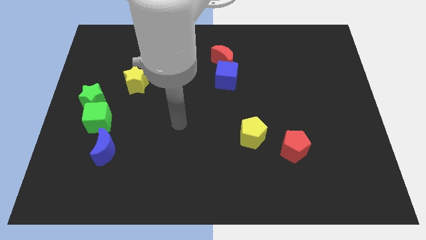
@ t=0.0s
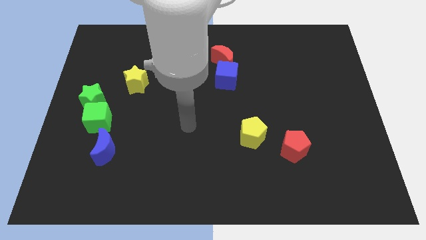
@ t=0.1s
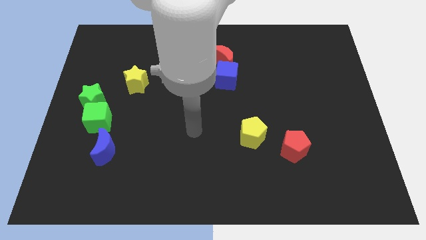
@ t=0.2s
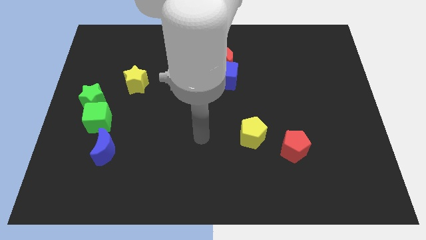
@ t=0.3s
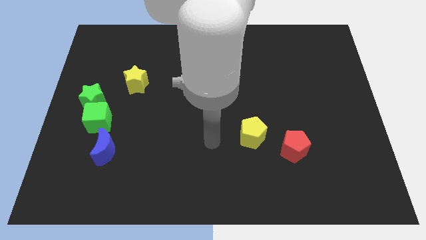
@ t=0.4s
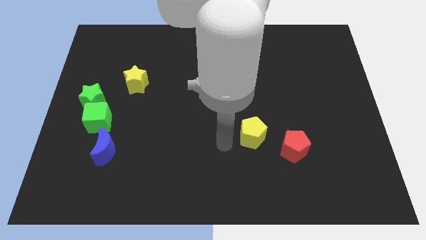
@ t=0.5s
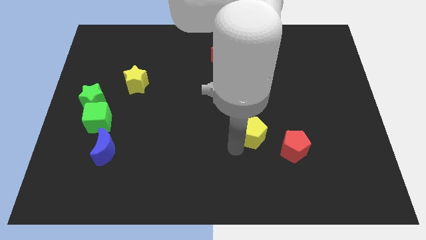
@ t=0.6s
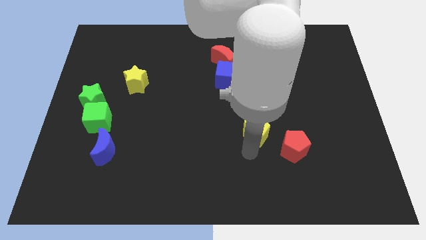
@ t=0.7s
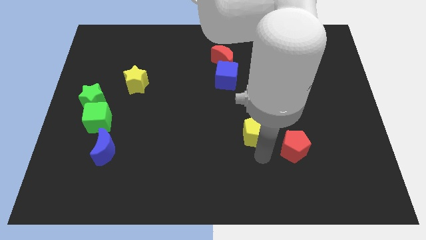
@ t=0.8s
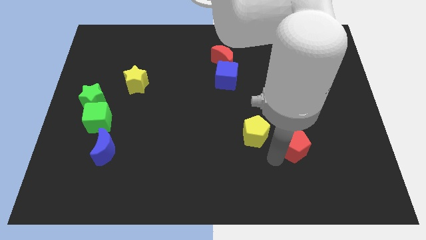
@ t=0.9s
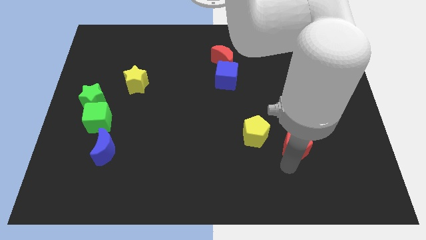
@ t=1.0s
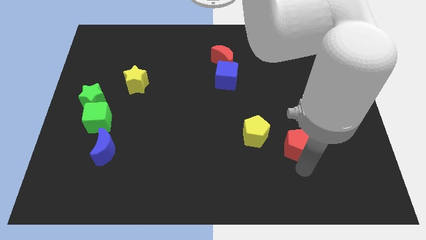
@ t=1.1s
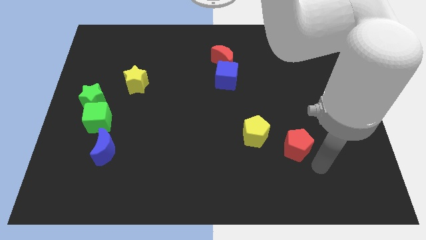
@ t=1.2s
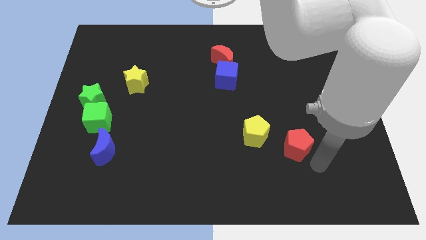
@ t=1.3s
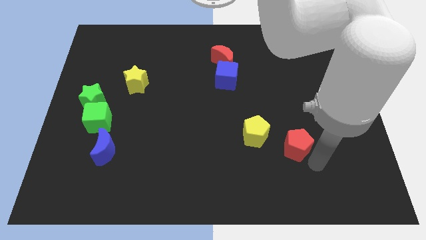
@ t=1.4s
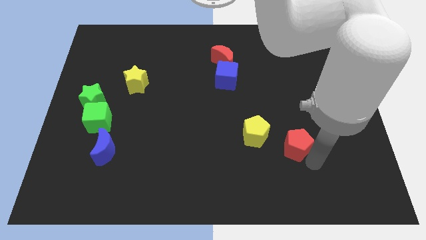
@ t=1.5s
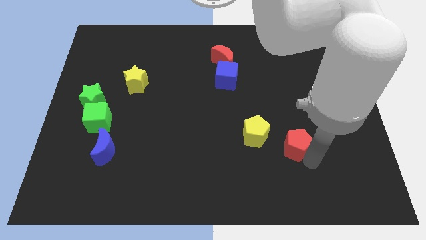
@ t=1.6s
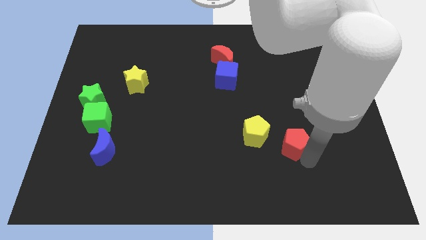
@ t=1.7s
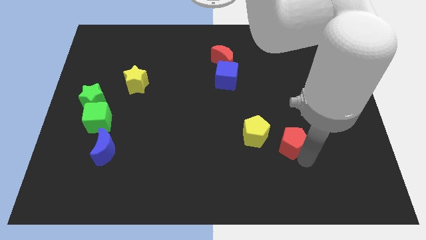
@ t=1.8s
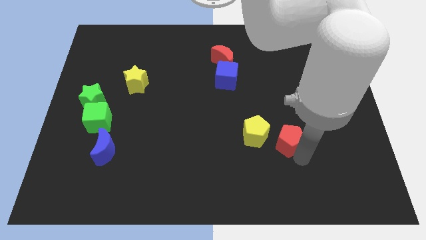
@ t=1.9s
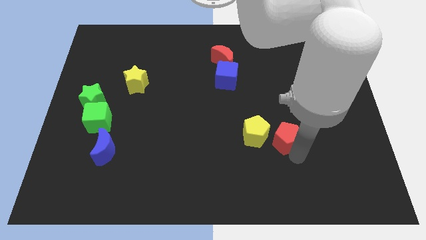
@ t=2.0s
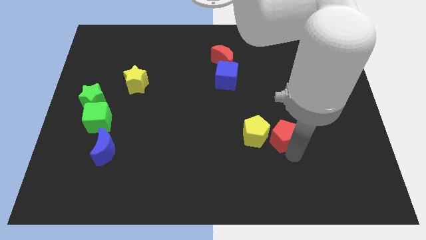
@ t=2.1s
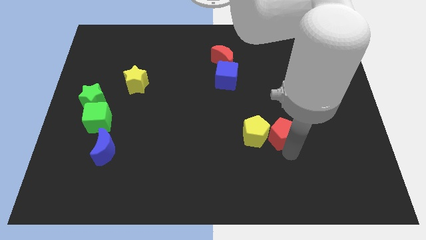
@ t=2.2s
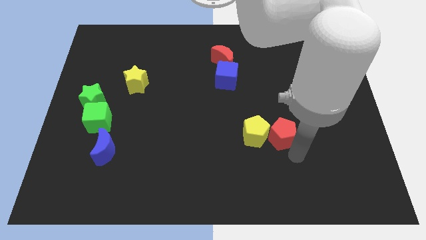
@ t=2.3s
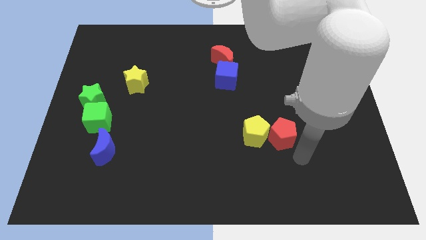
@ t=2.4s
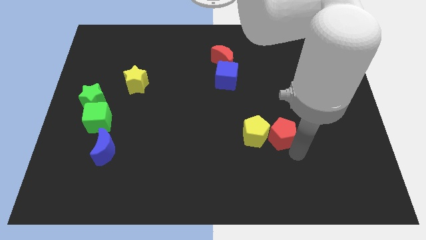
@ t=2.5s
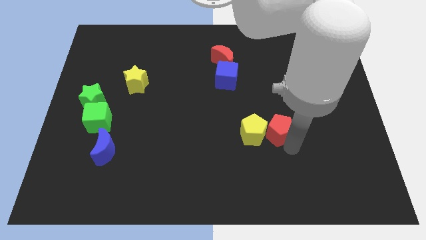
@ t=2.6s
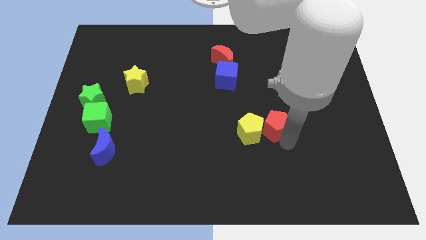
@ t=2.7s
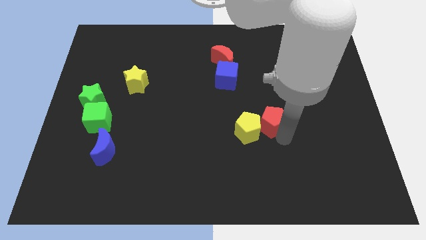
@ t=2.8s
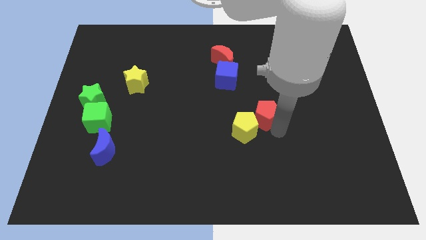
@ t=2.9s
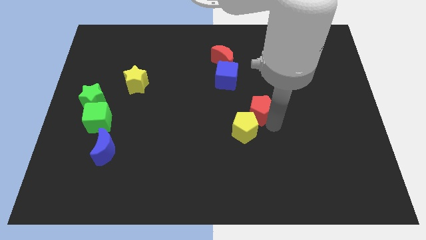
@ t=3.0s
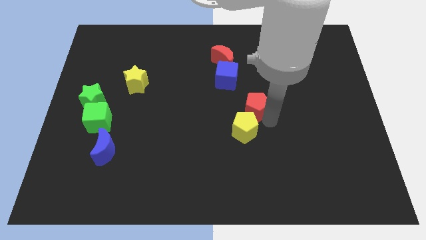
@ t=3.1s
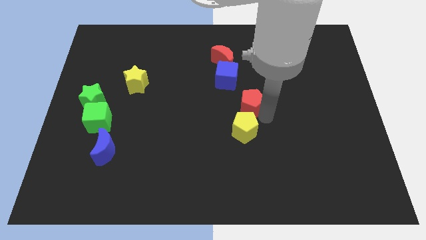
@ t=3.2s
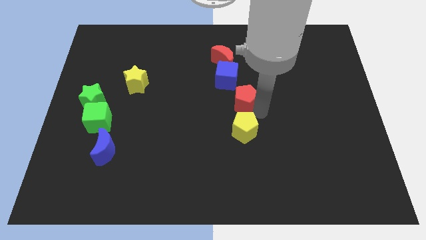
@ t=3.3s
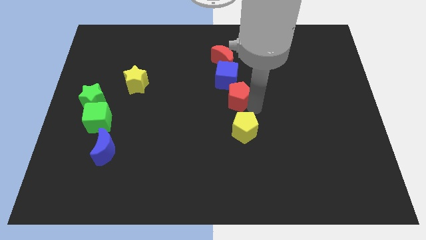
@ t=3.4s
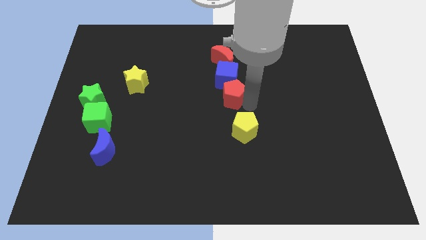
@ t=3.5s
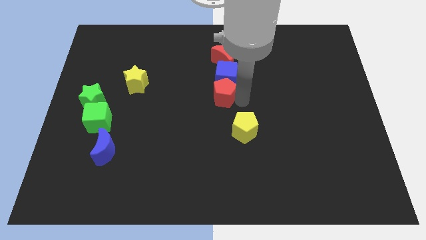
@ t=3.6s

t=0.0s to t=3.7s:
move the red pentagon upwards and left diagonally

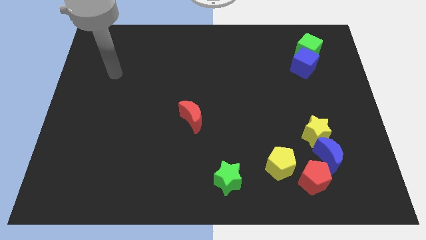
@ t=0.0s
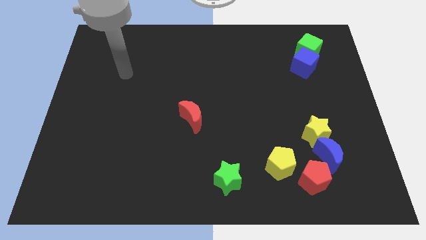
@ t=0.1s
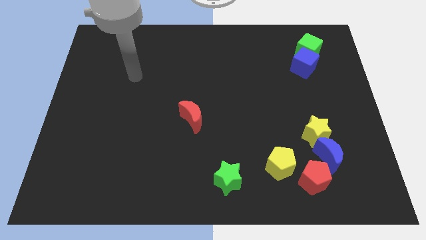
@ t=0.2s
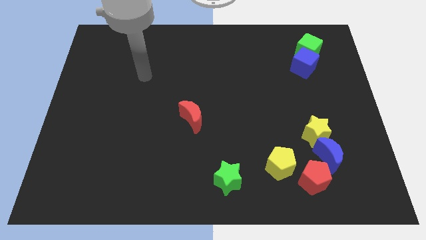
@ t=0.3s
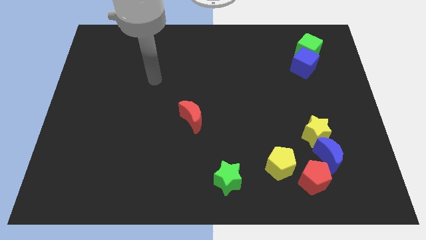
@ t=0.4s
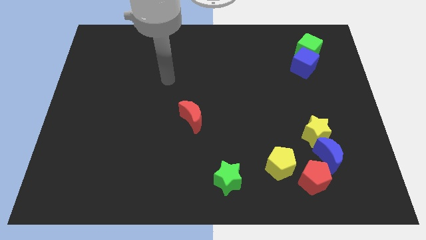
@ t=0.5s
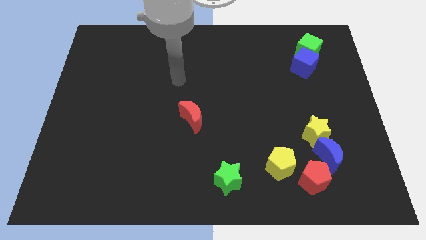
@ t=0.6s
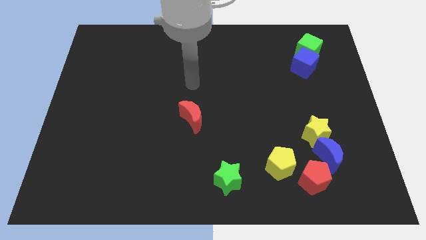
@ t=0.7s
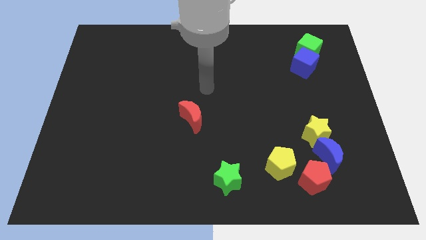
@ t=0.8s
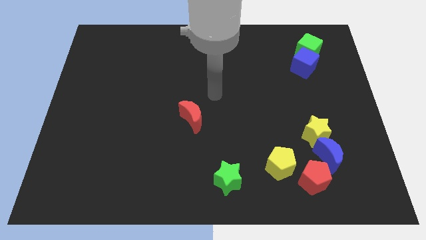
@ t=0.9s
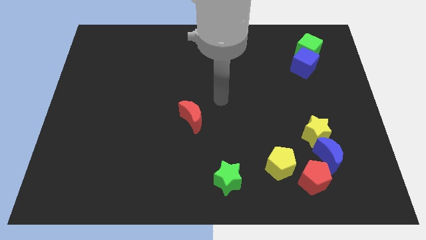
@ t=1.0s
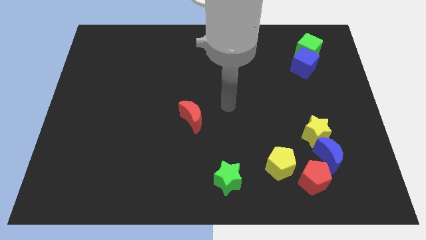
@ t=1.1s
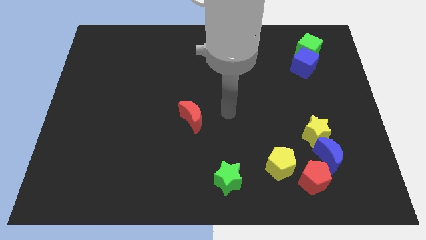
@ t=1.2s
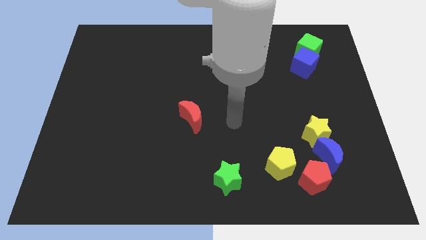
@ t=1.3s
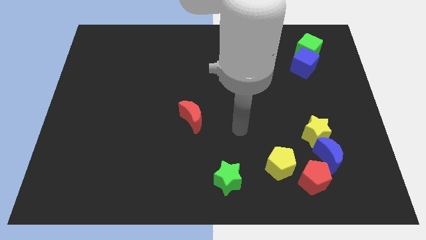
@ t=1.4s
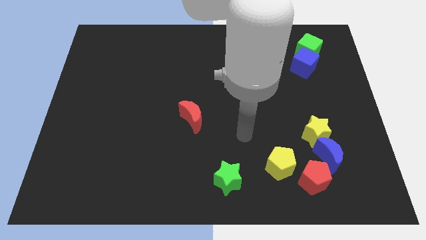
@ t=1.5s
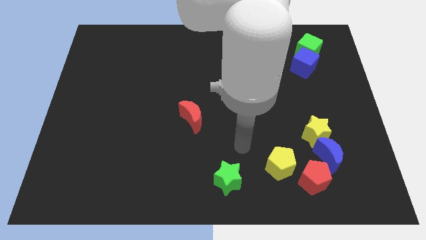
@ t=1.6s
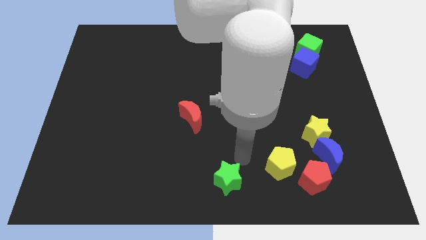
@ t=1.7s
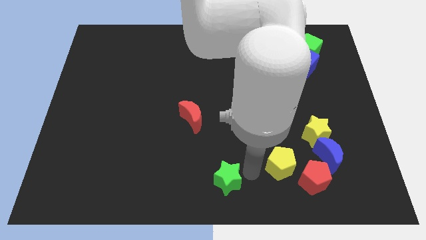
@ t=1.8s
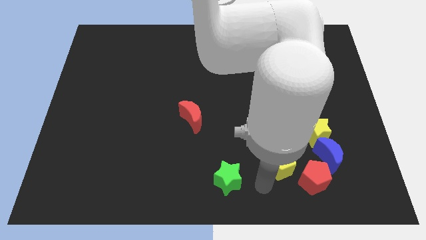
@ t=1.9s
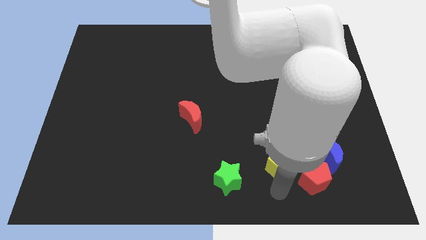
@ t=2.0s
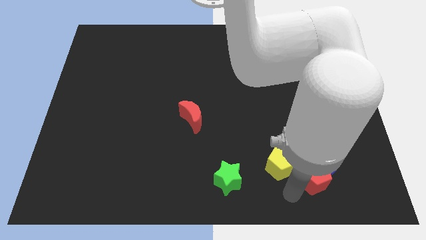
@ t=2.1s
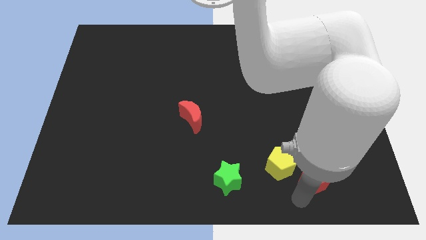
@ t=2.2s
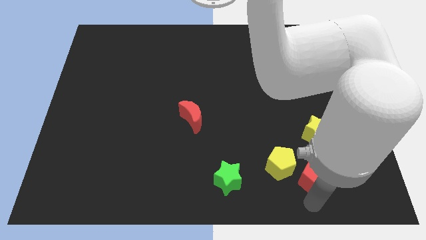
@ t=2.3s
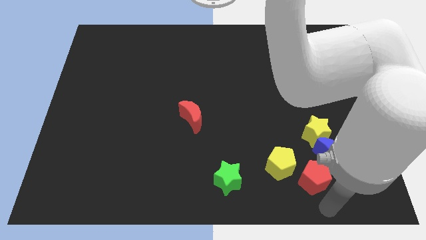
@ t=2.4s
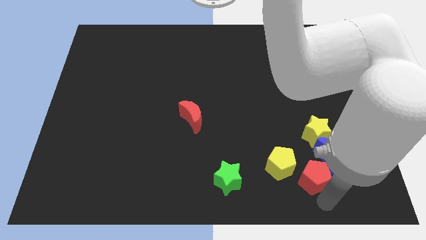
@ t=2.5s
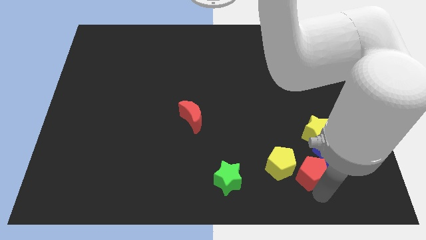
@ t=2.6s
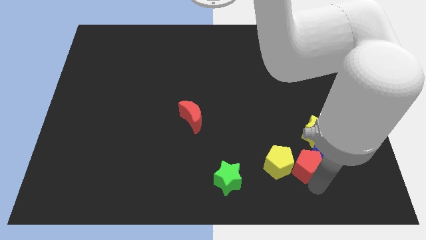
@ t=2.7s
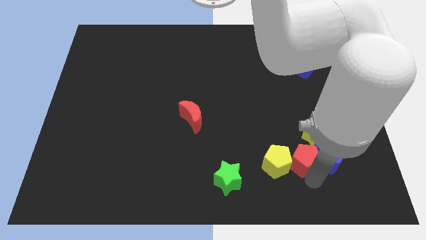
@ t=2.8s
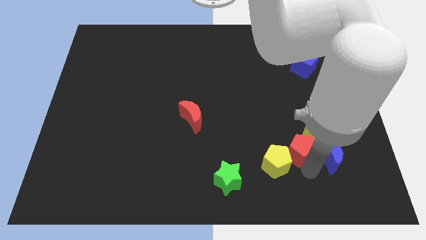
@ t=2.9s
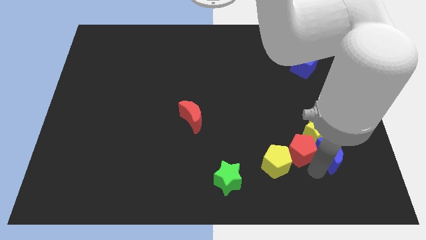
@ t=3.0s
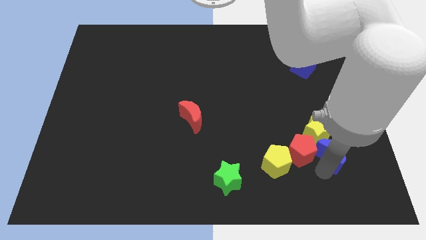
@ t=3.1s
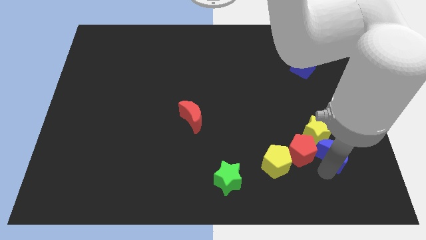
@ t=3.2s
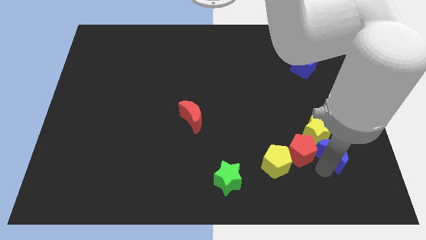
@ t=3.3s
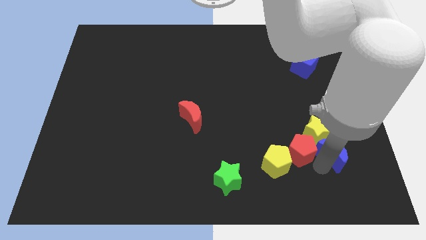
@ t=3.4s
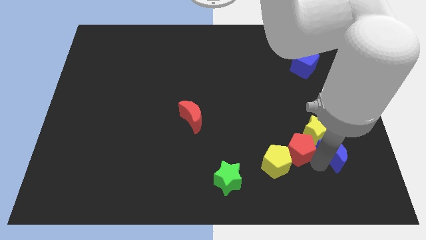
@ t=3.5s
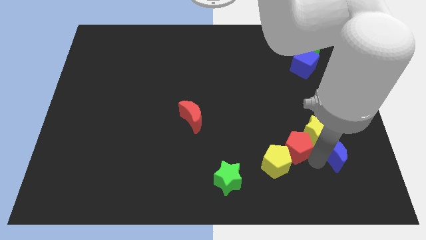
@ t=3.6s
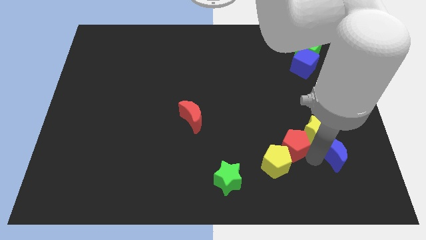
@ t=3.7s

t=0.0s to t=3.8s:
slightly slide the red pentagon upwards and left diagonally

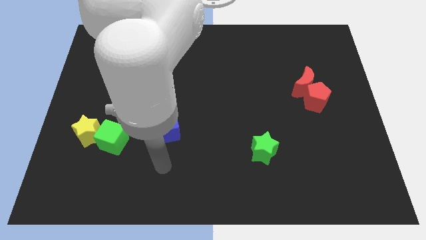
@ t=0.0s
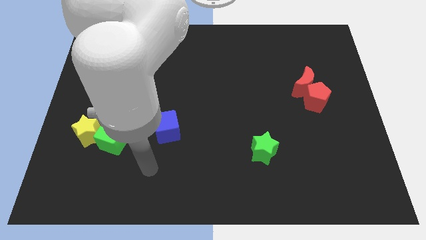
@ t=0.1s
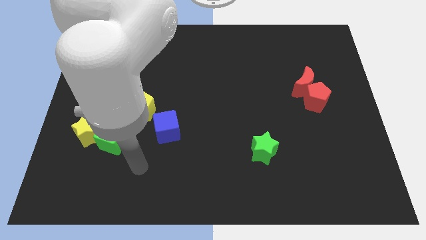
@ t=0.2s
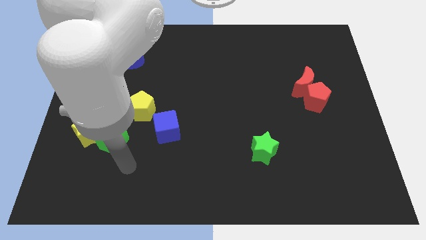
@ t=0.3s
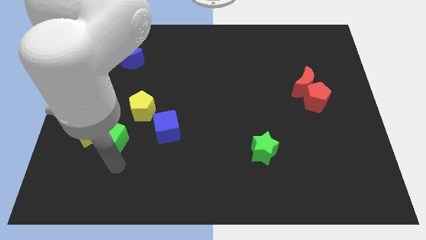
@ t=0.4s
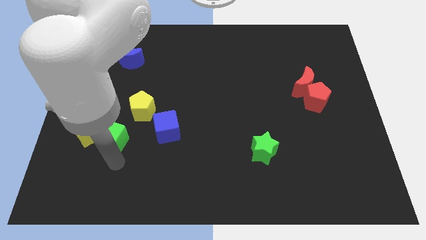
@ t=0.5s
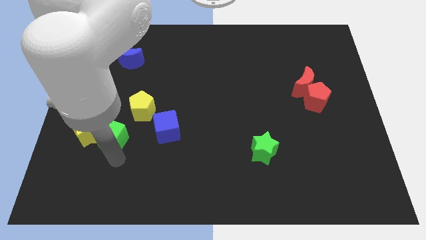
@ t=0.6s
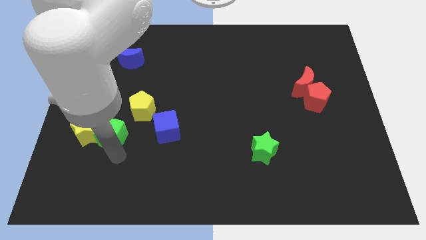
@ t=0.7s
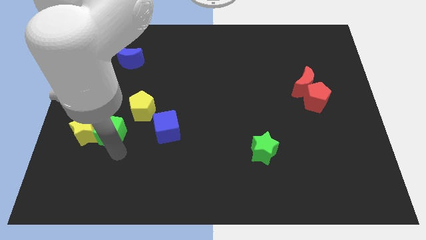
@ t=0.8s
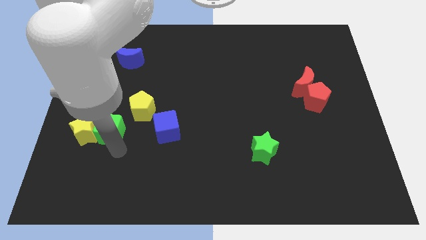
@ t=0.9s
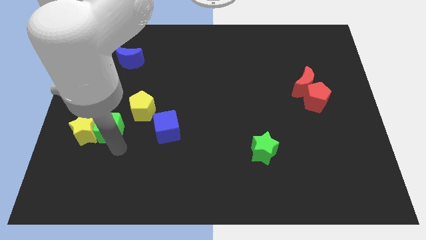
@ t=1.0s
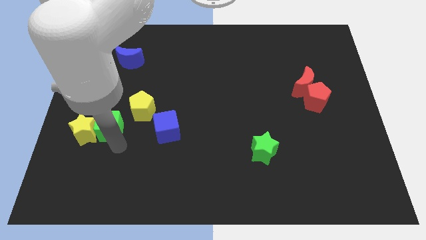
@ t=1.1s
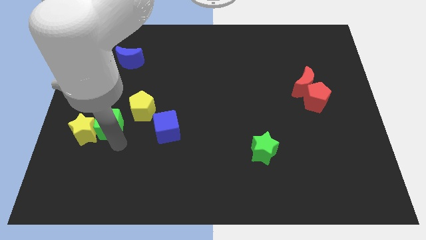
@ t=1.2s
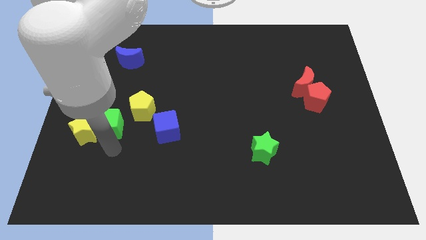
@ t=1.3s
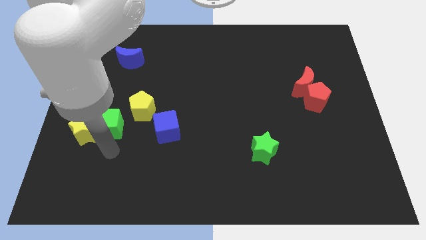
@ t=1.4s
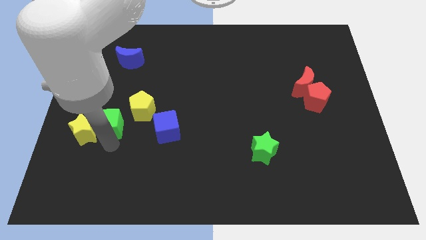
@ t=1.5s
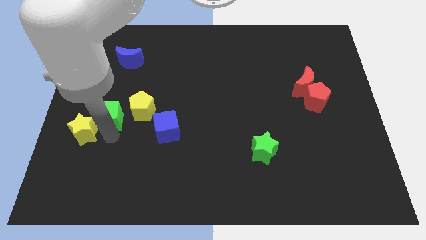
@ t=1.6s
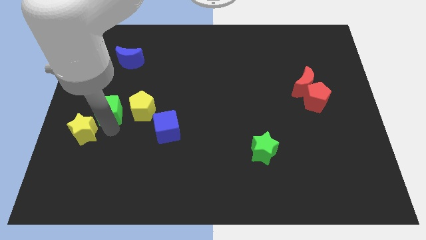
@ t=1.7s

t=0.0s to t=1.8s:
move the green cube a bit up
